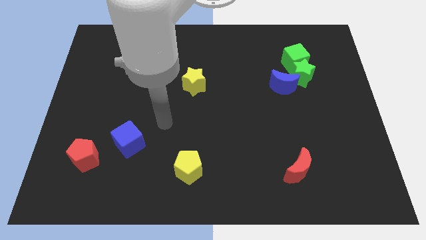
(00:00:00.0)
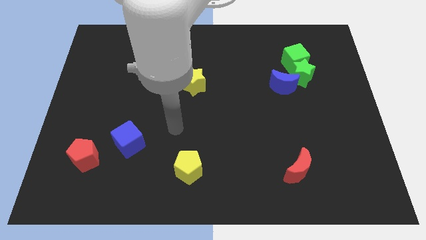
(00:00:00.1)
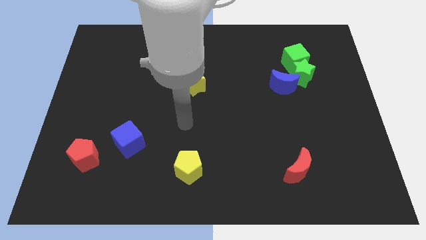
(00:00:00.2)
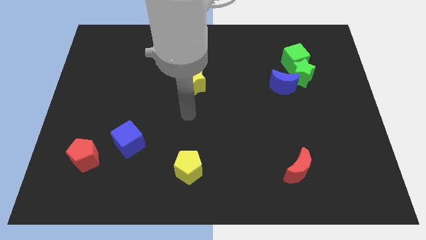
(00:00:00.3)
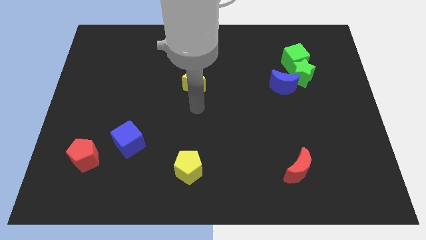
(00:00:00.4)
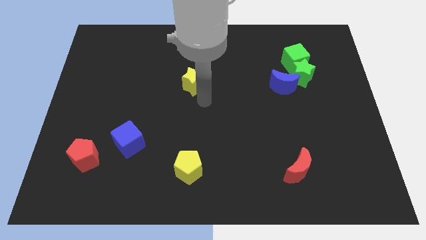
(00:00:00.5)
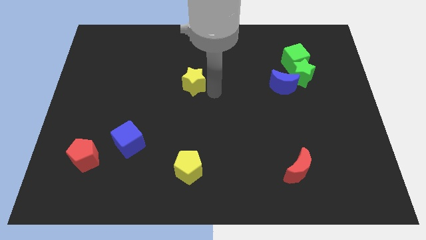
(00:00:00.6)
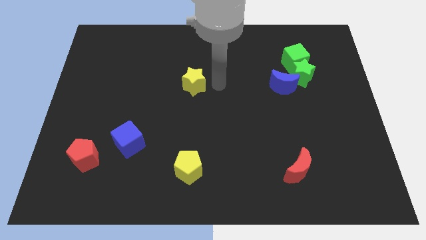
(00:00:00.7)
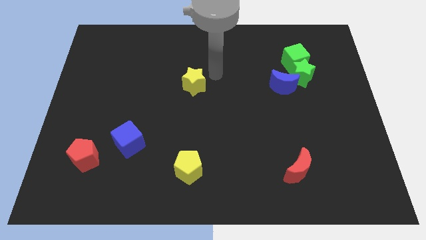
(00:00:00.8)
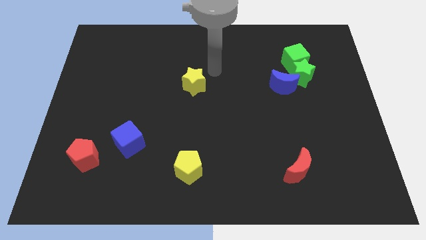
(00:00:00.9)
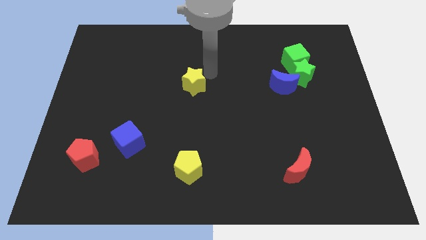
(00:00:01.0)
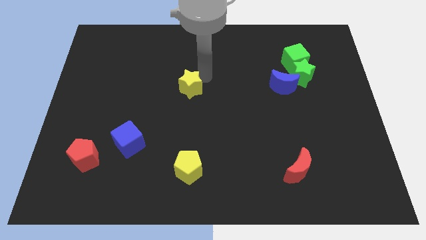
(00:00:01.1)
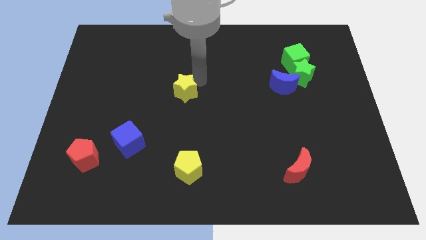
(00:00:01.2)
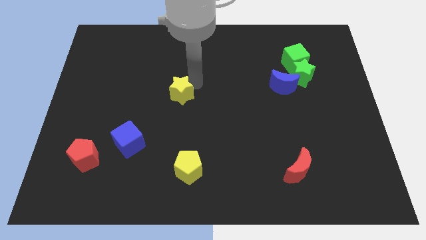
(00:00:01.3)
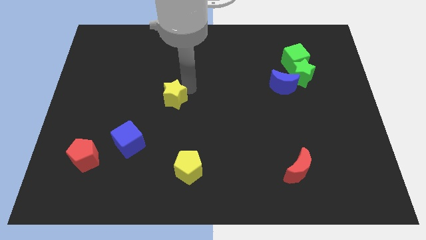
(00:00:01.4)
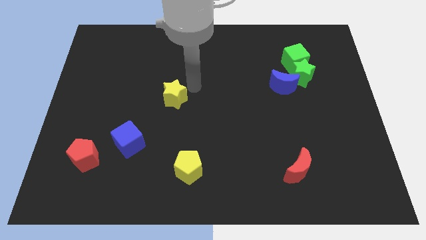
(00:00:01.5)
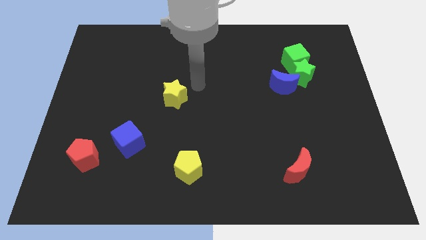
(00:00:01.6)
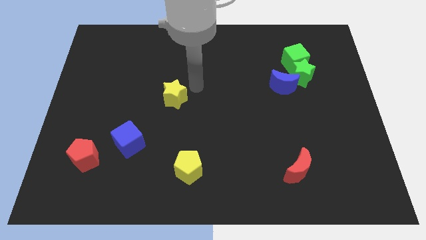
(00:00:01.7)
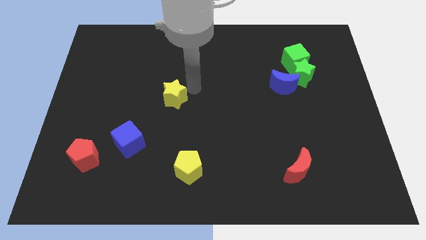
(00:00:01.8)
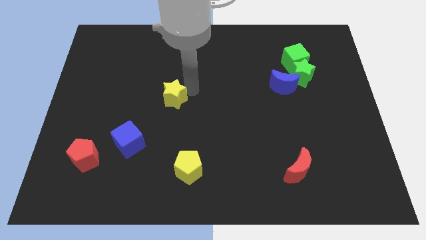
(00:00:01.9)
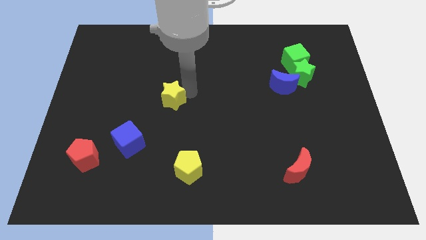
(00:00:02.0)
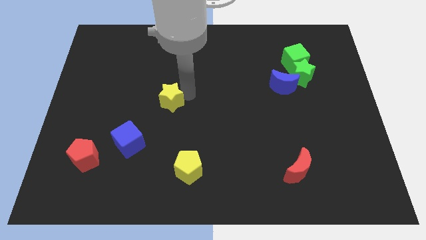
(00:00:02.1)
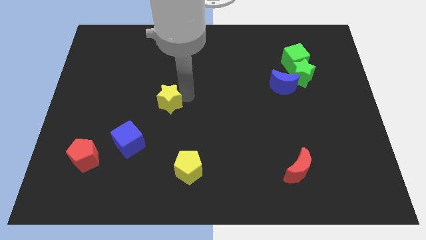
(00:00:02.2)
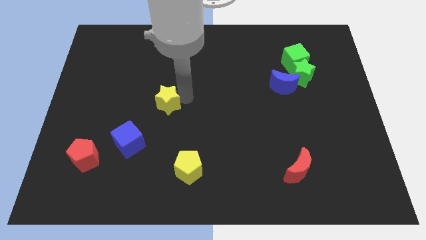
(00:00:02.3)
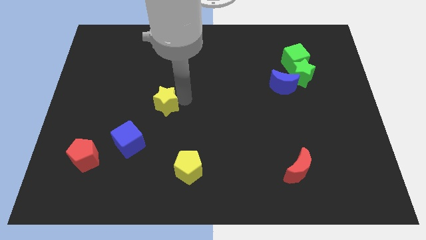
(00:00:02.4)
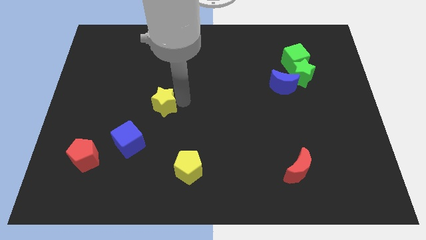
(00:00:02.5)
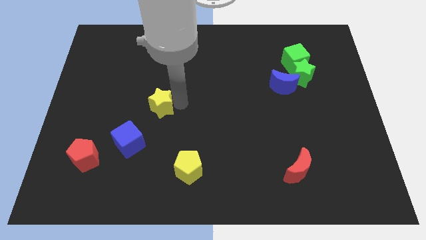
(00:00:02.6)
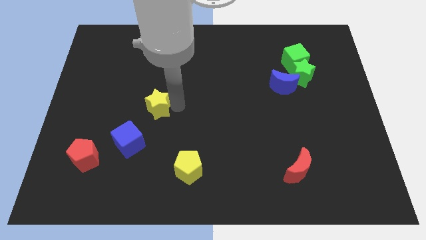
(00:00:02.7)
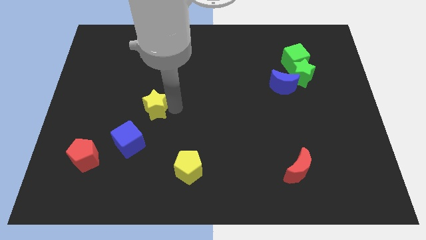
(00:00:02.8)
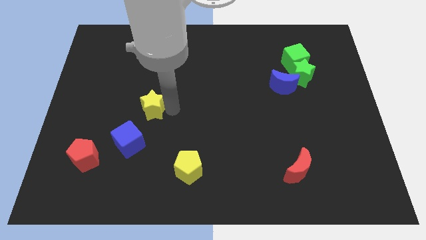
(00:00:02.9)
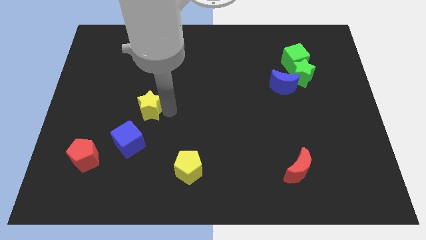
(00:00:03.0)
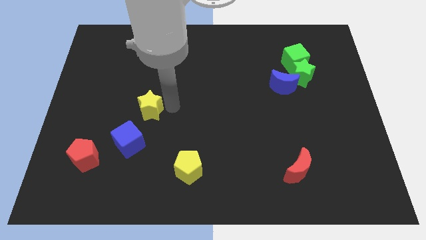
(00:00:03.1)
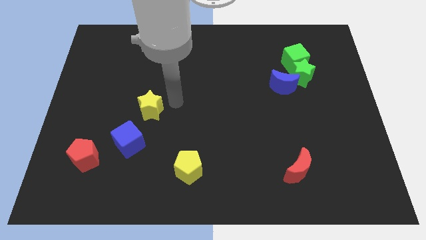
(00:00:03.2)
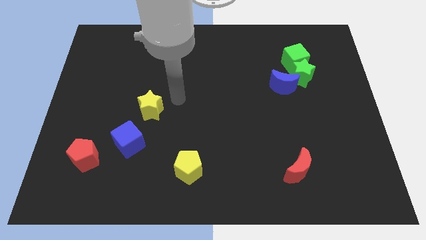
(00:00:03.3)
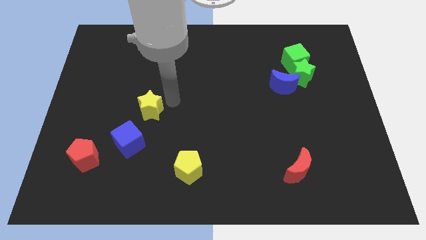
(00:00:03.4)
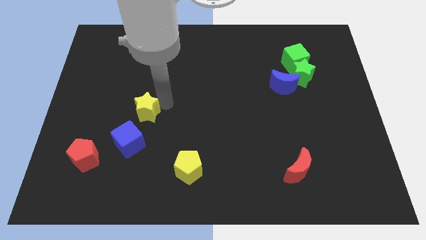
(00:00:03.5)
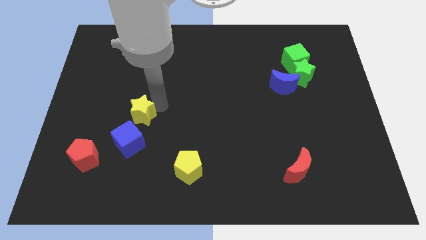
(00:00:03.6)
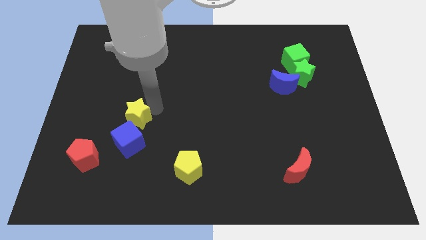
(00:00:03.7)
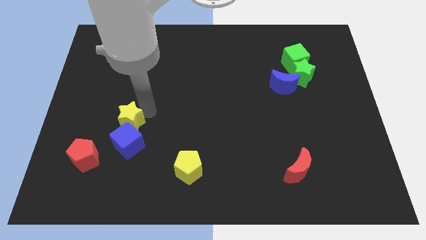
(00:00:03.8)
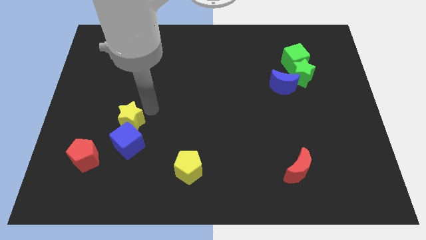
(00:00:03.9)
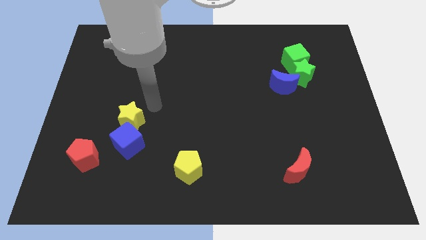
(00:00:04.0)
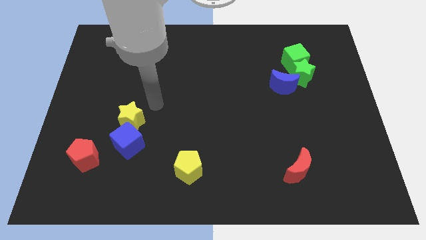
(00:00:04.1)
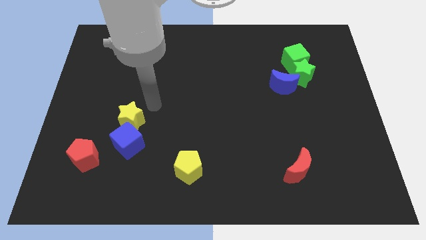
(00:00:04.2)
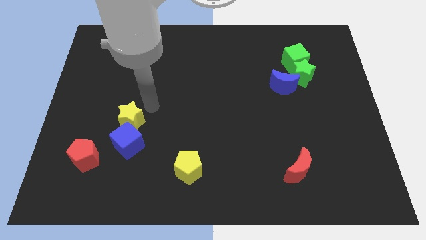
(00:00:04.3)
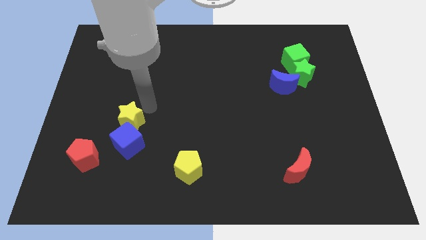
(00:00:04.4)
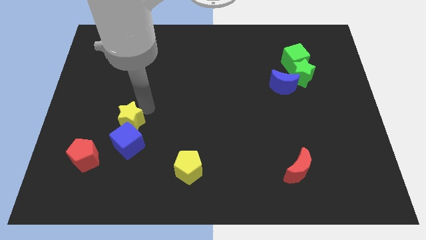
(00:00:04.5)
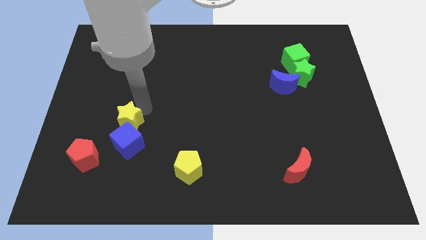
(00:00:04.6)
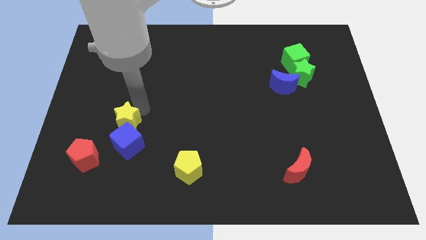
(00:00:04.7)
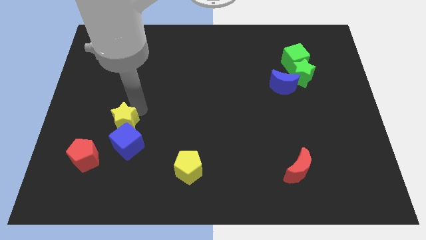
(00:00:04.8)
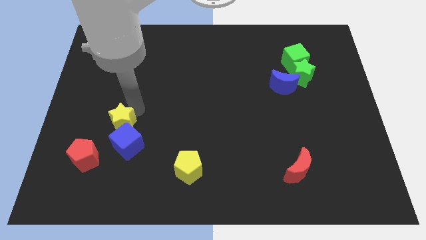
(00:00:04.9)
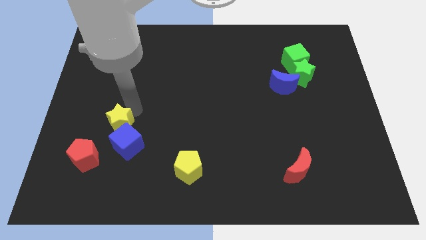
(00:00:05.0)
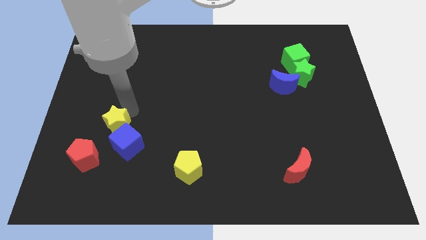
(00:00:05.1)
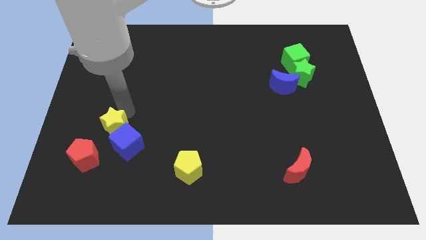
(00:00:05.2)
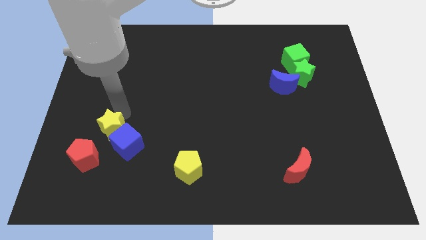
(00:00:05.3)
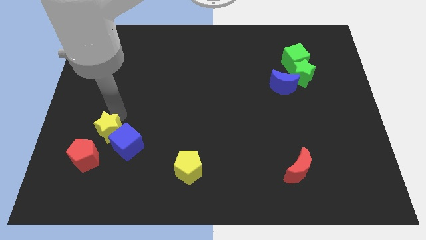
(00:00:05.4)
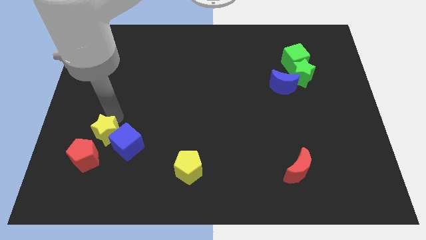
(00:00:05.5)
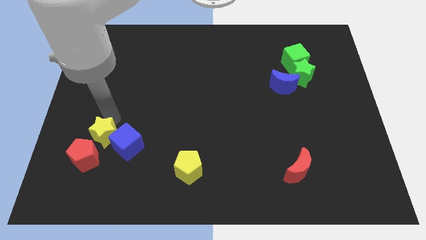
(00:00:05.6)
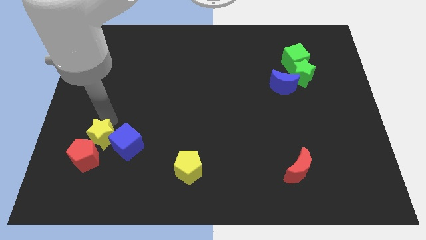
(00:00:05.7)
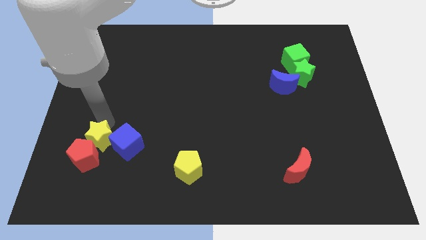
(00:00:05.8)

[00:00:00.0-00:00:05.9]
push the yellow star to the red pentagon

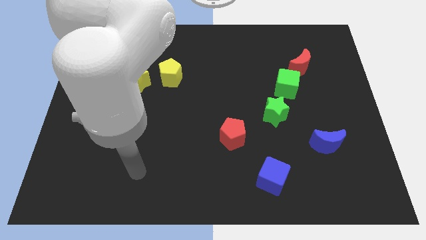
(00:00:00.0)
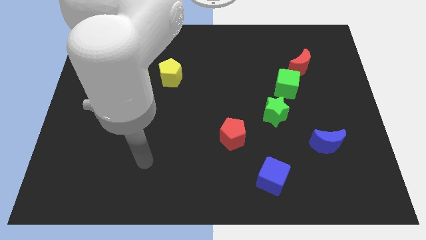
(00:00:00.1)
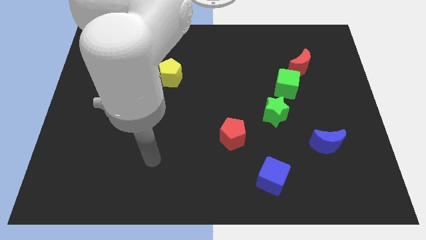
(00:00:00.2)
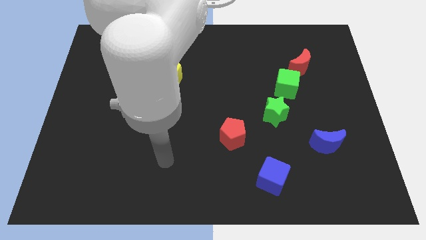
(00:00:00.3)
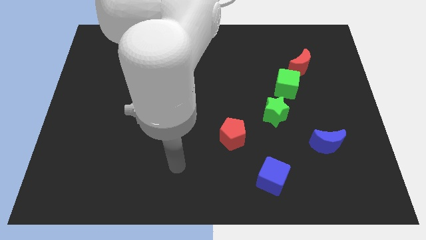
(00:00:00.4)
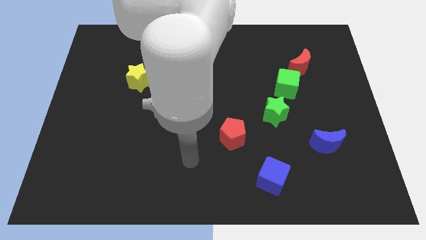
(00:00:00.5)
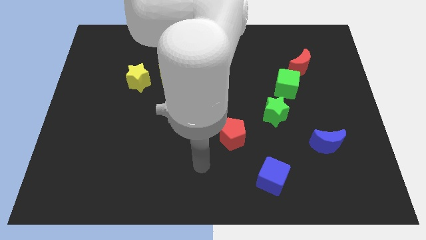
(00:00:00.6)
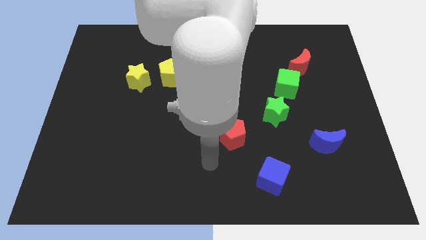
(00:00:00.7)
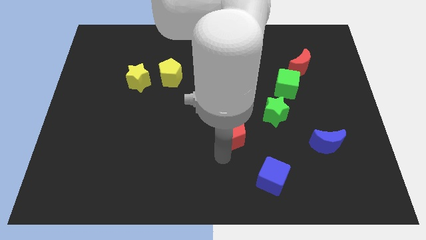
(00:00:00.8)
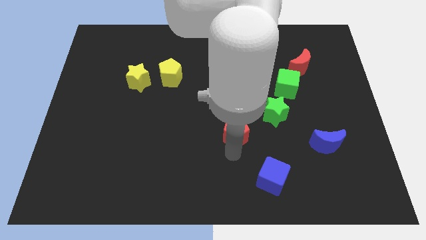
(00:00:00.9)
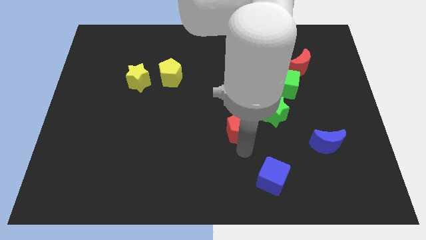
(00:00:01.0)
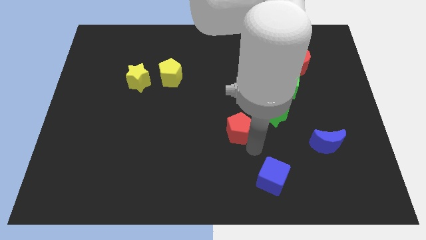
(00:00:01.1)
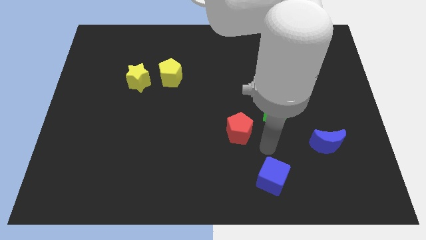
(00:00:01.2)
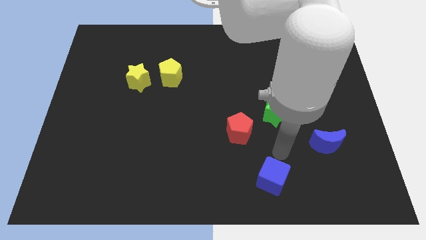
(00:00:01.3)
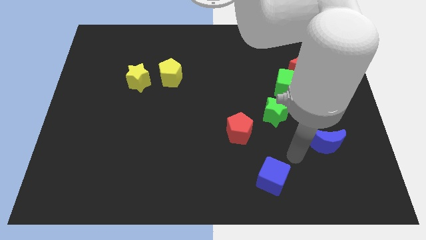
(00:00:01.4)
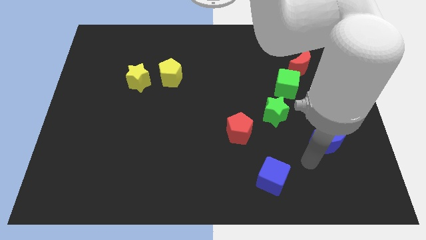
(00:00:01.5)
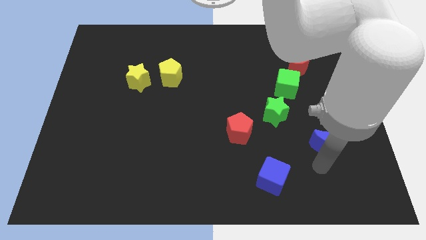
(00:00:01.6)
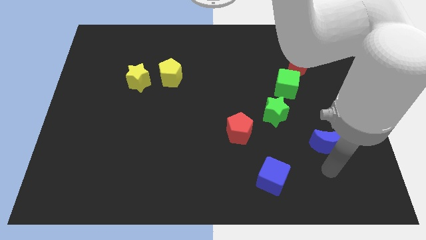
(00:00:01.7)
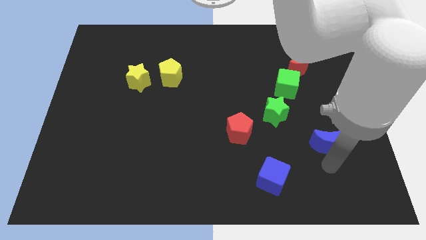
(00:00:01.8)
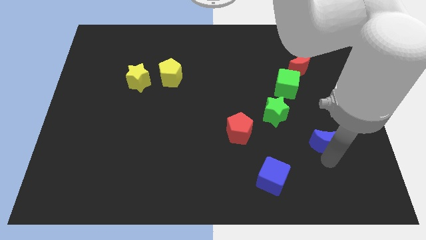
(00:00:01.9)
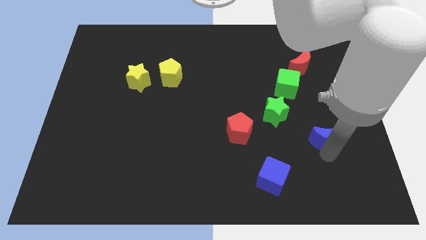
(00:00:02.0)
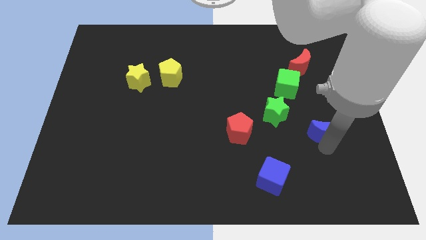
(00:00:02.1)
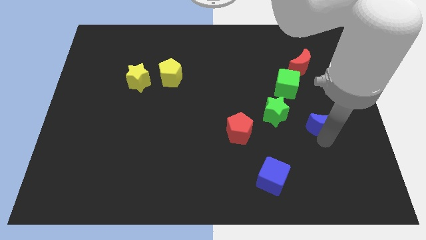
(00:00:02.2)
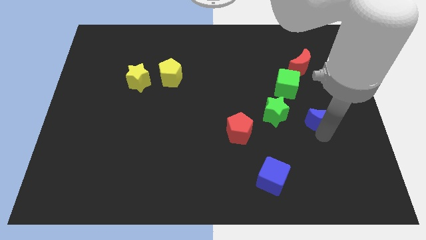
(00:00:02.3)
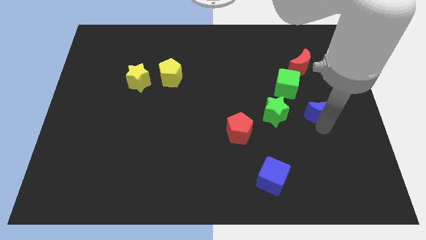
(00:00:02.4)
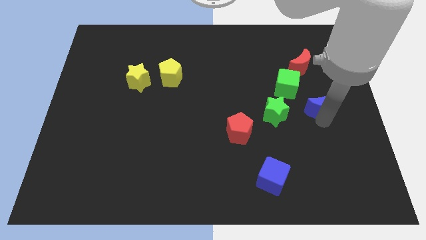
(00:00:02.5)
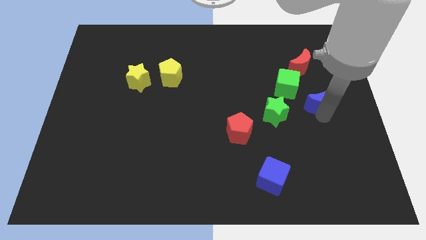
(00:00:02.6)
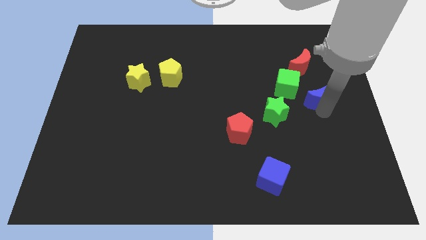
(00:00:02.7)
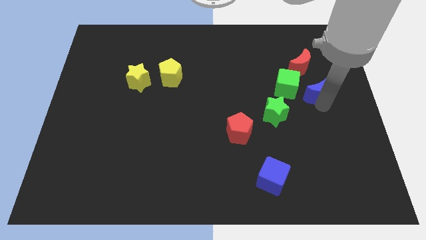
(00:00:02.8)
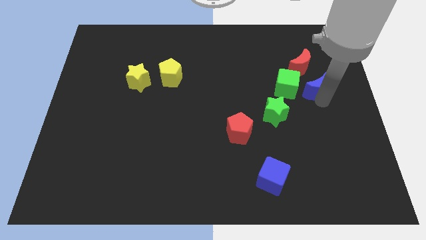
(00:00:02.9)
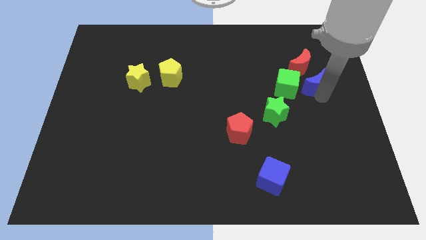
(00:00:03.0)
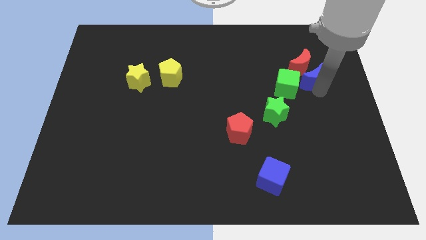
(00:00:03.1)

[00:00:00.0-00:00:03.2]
push the blue moon close to the red moon
